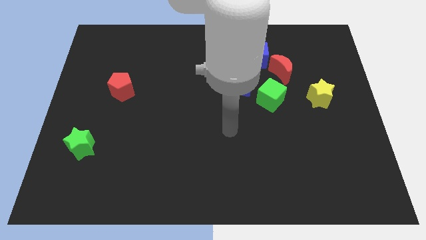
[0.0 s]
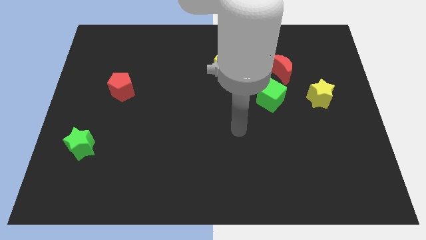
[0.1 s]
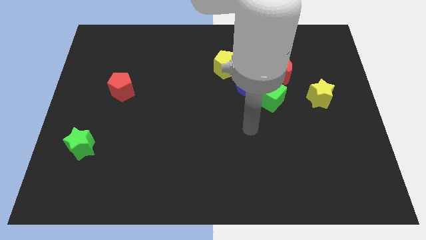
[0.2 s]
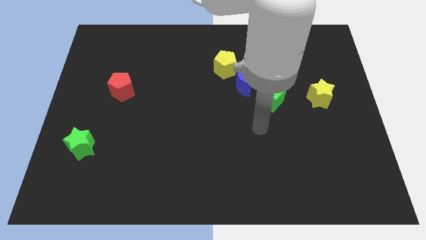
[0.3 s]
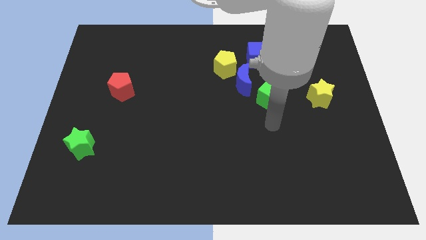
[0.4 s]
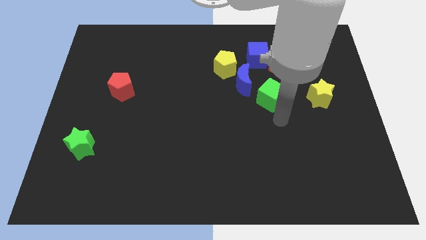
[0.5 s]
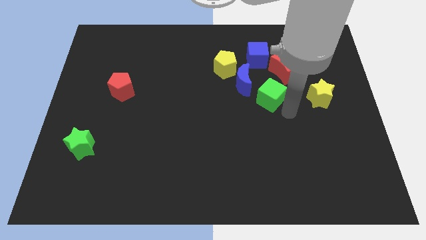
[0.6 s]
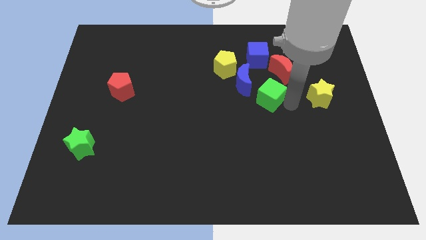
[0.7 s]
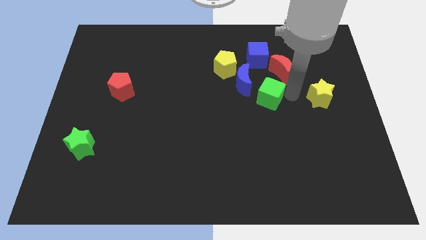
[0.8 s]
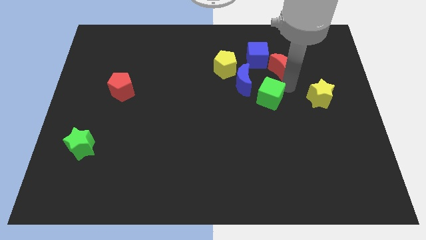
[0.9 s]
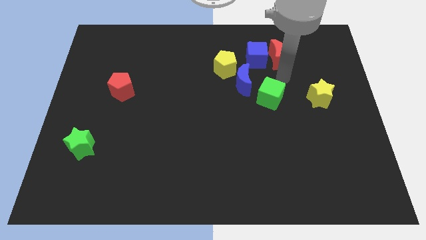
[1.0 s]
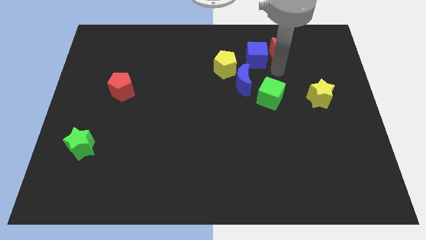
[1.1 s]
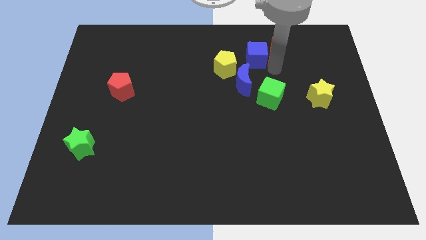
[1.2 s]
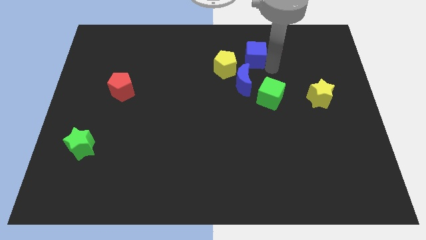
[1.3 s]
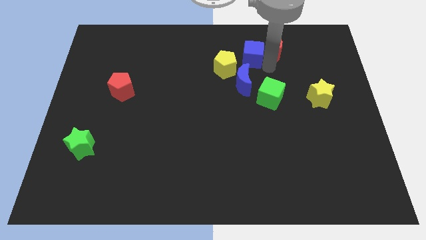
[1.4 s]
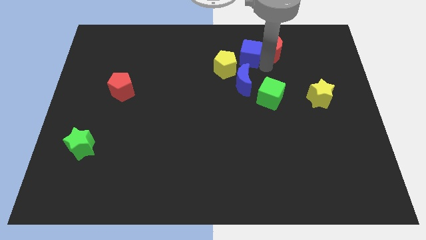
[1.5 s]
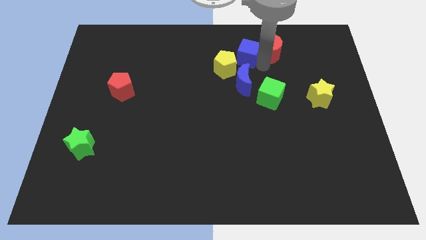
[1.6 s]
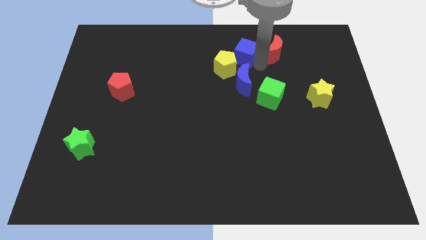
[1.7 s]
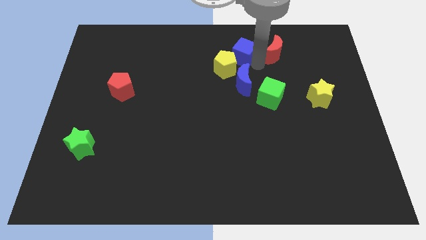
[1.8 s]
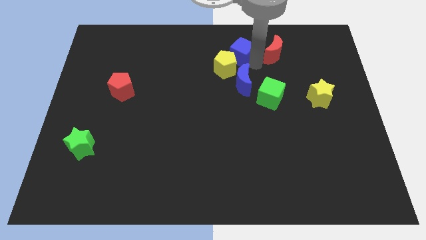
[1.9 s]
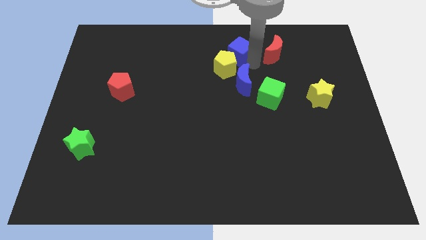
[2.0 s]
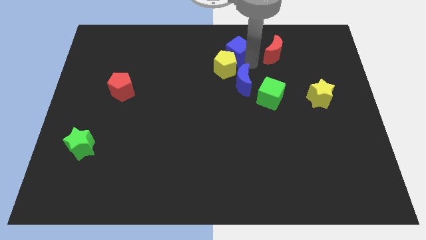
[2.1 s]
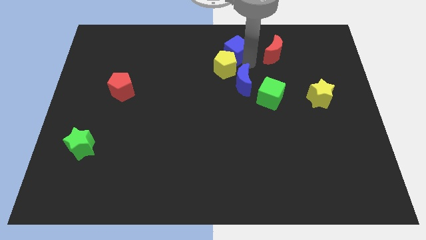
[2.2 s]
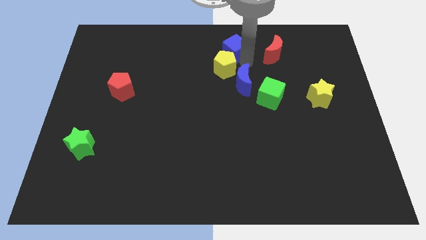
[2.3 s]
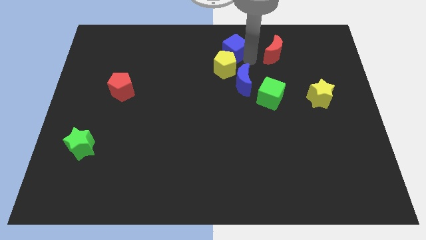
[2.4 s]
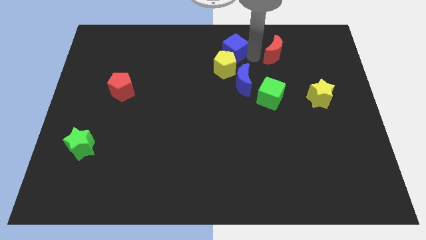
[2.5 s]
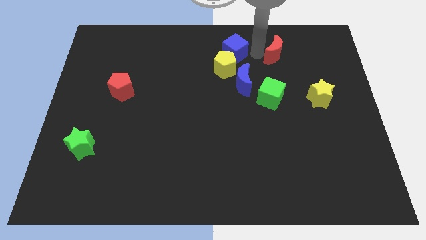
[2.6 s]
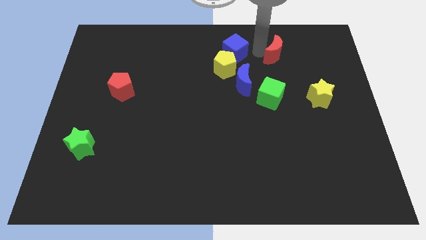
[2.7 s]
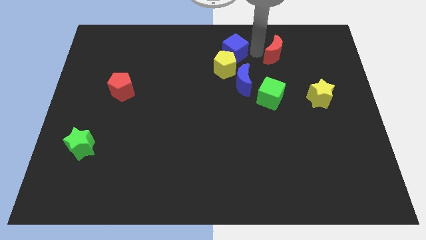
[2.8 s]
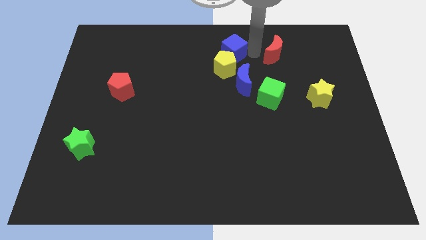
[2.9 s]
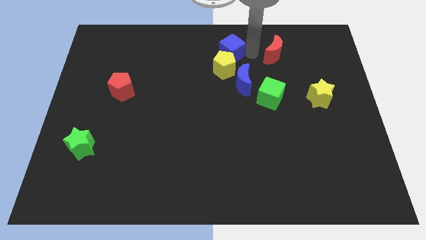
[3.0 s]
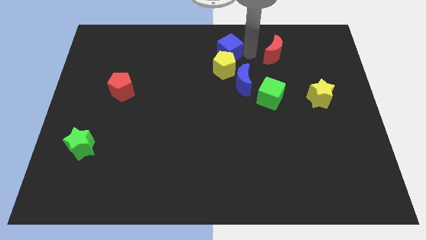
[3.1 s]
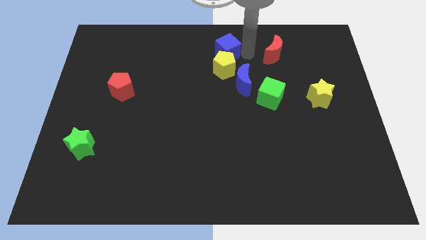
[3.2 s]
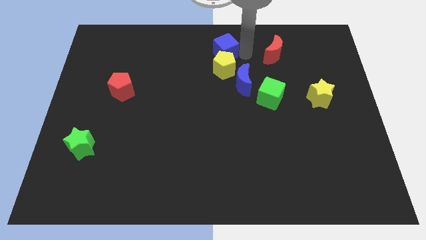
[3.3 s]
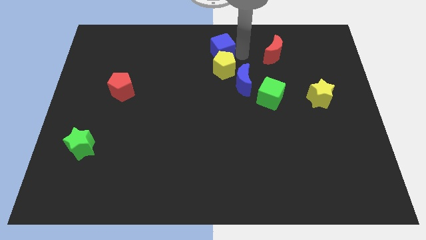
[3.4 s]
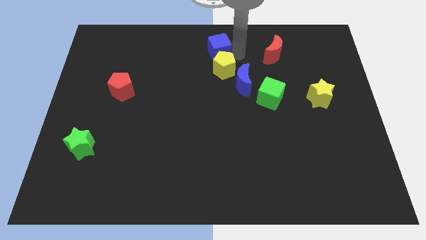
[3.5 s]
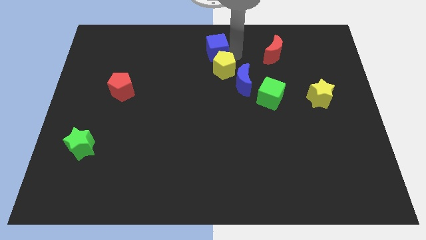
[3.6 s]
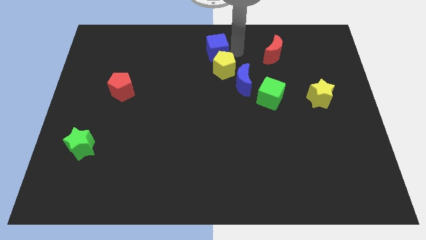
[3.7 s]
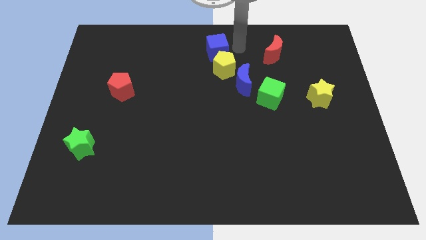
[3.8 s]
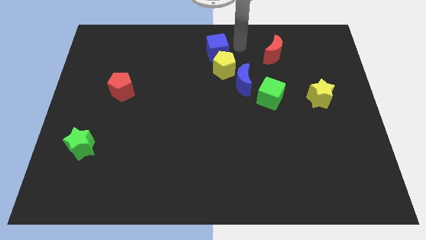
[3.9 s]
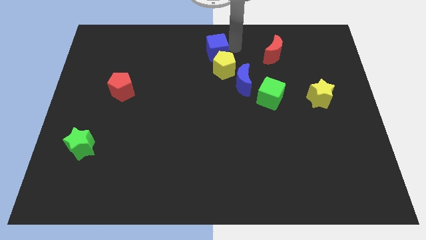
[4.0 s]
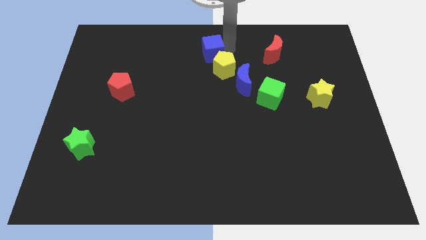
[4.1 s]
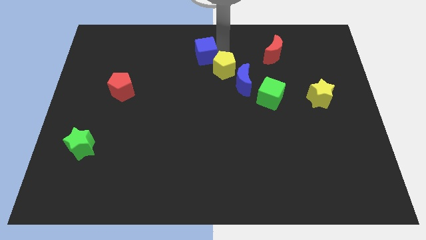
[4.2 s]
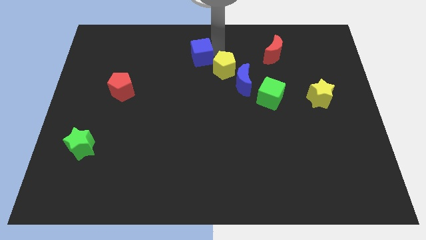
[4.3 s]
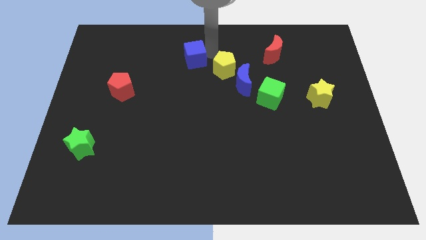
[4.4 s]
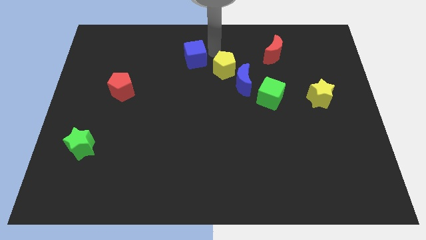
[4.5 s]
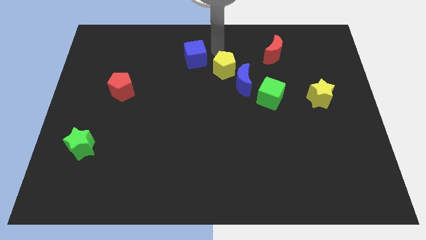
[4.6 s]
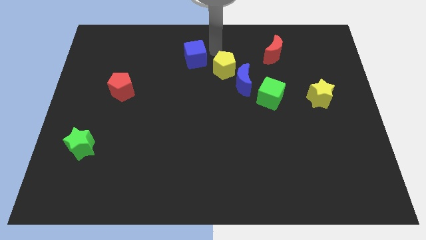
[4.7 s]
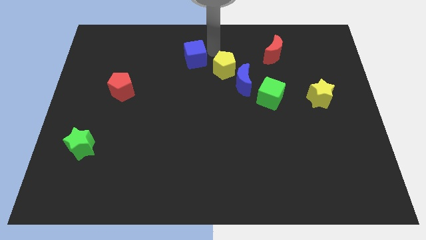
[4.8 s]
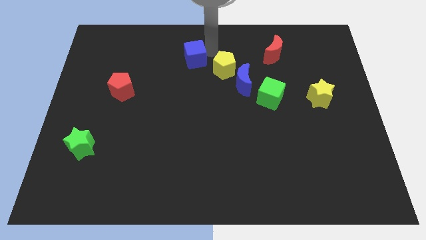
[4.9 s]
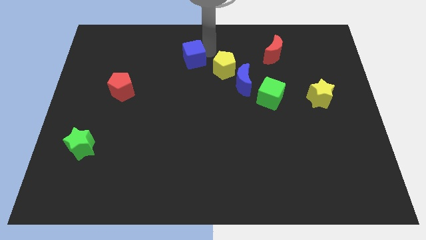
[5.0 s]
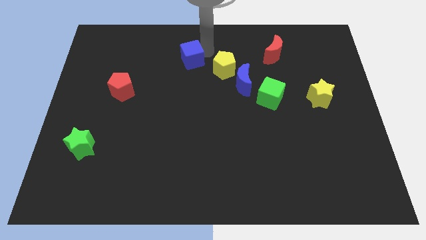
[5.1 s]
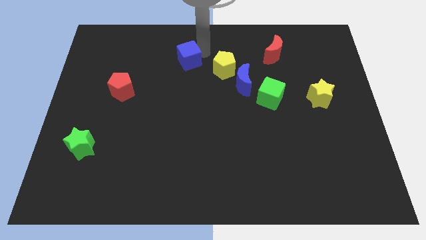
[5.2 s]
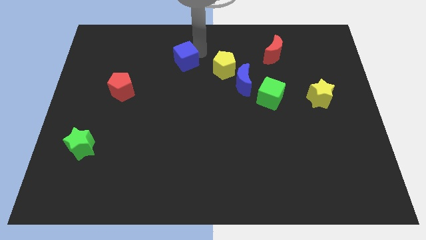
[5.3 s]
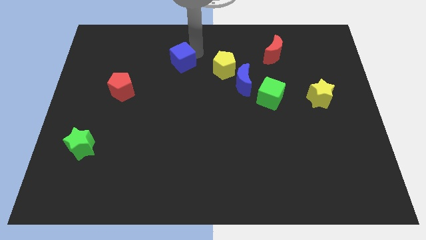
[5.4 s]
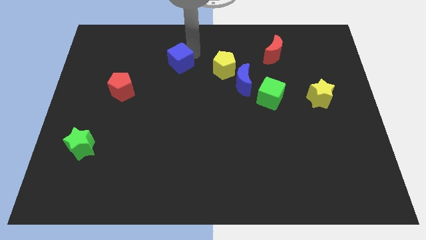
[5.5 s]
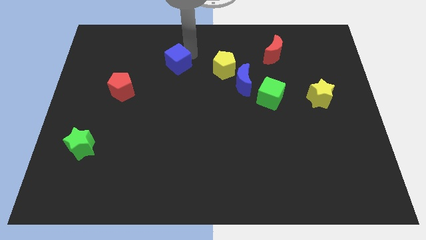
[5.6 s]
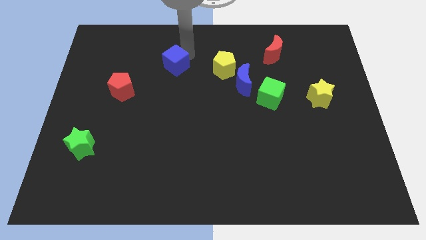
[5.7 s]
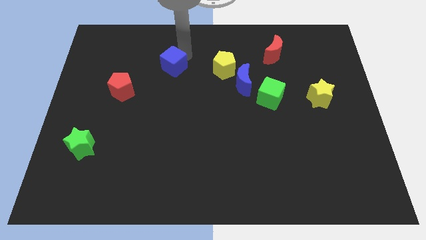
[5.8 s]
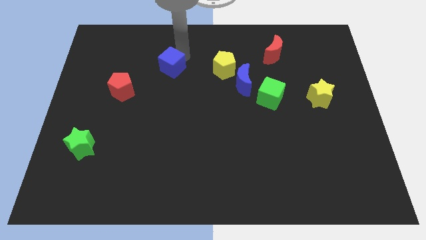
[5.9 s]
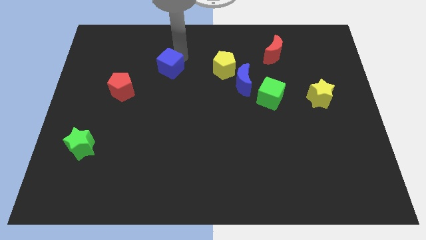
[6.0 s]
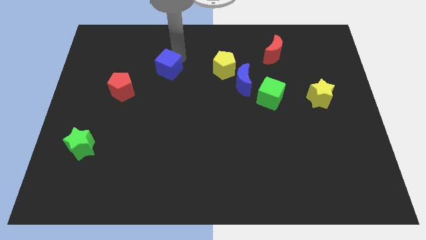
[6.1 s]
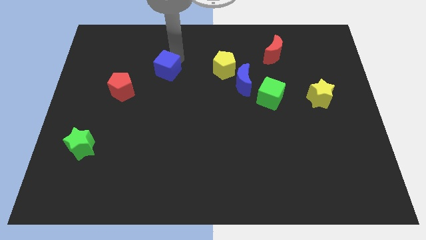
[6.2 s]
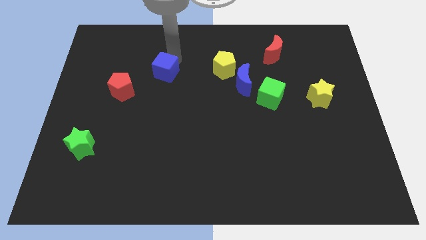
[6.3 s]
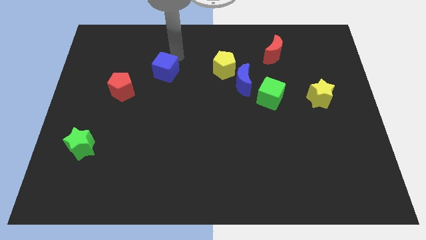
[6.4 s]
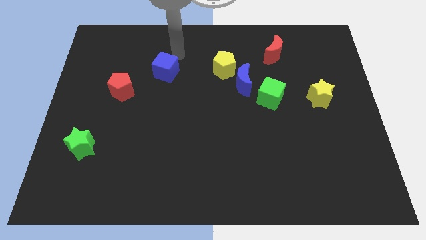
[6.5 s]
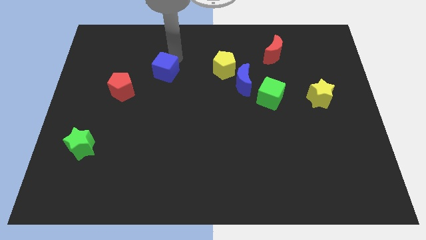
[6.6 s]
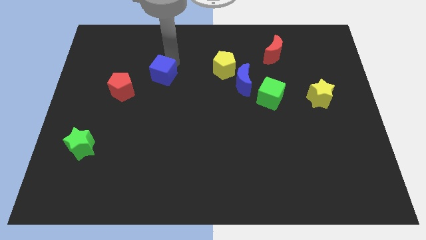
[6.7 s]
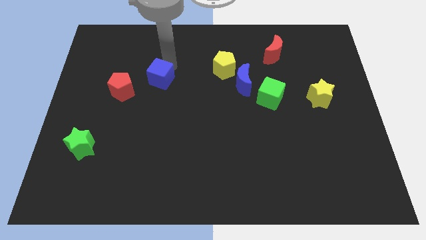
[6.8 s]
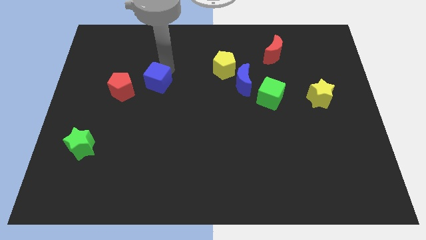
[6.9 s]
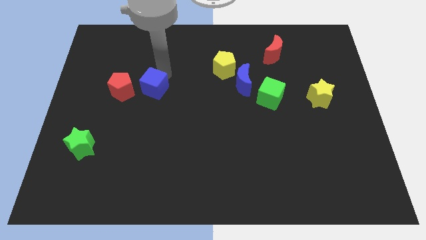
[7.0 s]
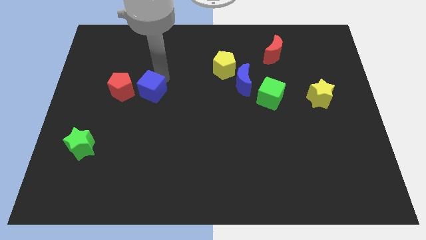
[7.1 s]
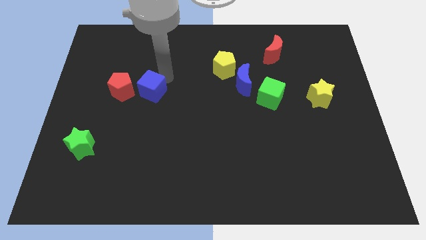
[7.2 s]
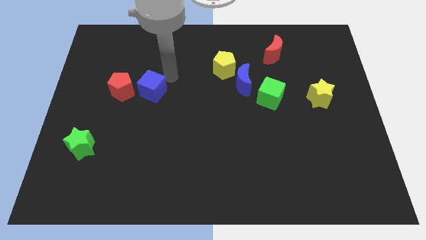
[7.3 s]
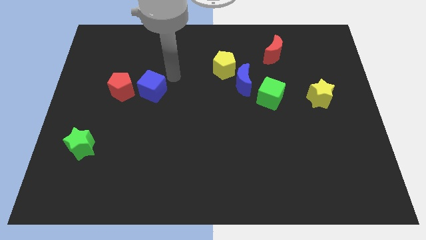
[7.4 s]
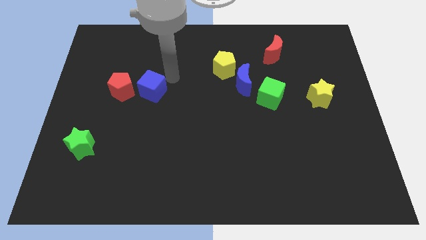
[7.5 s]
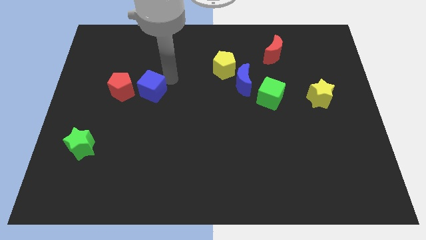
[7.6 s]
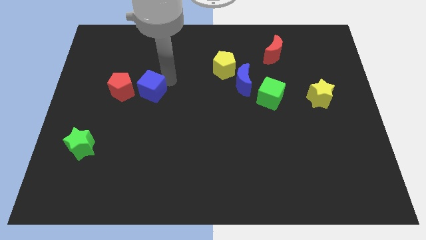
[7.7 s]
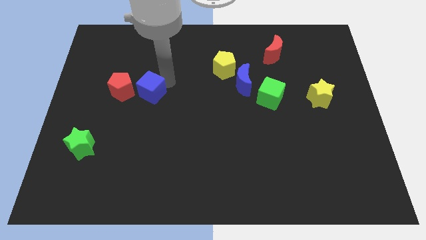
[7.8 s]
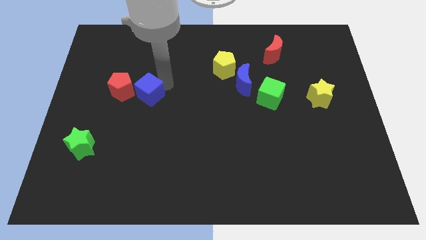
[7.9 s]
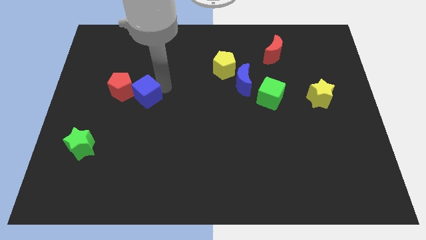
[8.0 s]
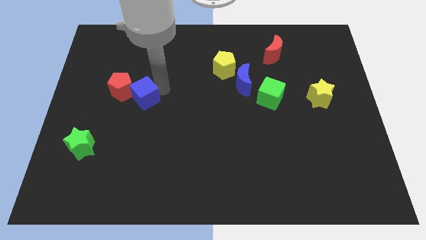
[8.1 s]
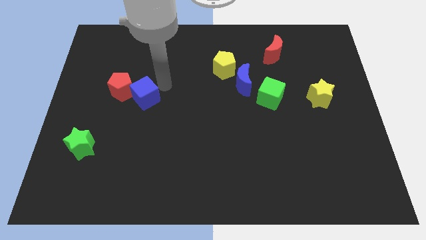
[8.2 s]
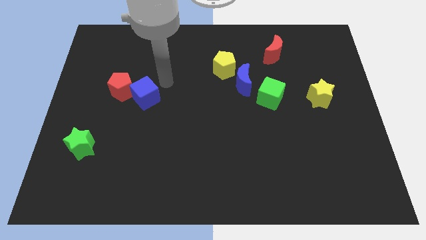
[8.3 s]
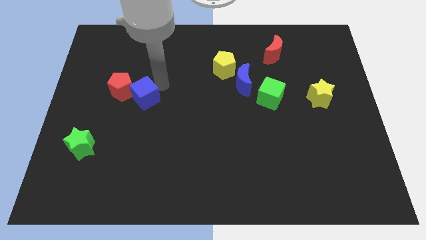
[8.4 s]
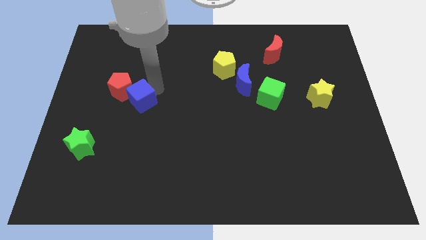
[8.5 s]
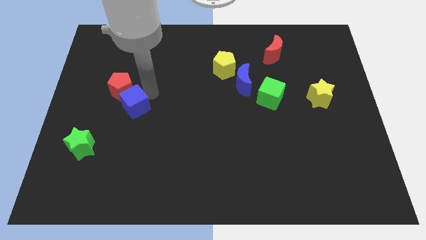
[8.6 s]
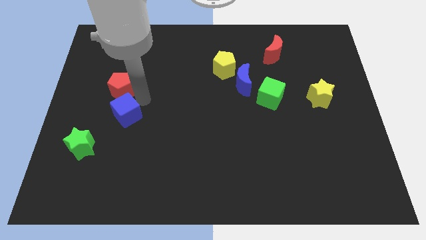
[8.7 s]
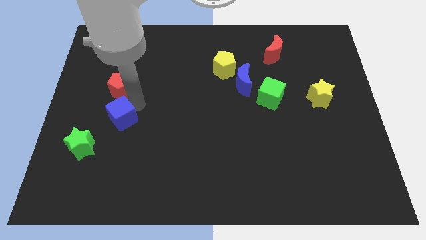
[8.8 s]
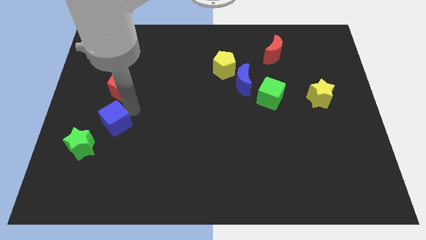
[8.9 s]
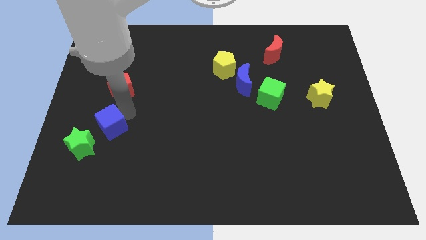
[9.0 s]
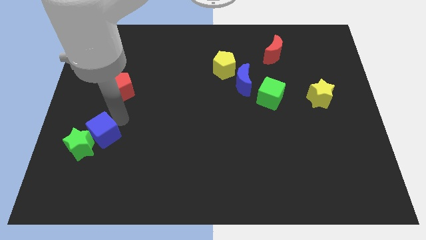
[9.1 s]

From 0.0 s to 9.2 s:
slide the blue cube towards the green star
